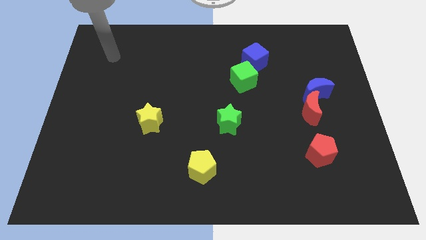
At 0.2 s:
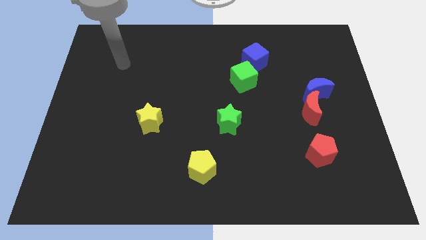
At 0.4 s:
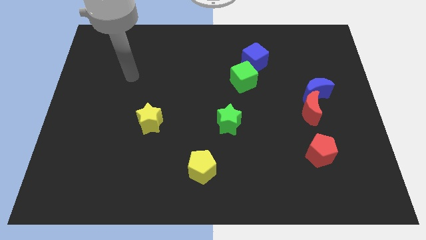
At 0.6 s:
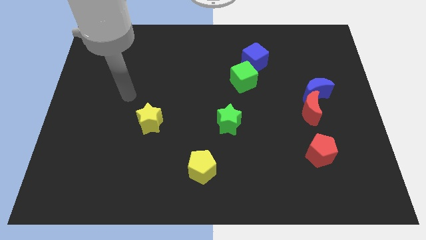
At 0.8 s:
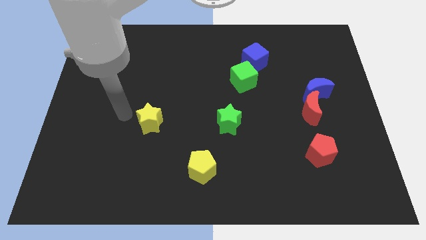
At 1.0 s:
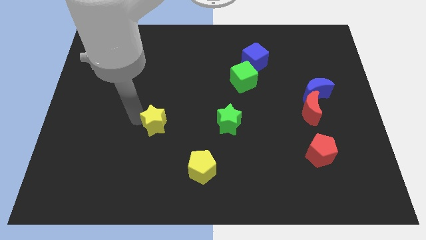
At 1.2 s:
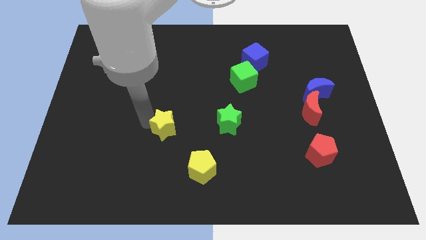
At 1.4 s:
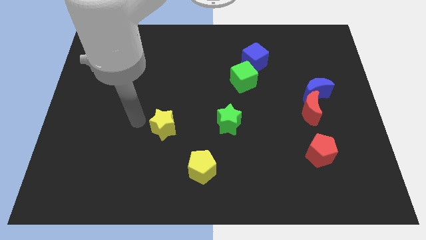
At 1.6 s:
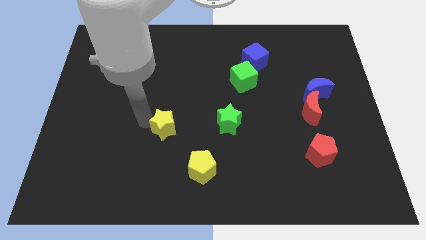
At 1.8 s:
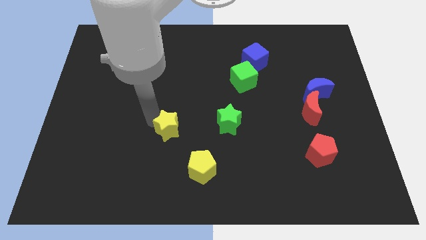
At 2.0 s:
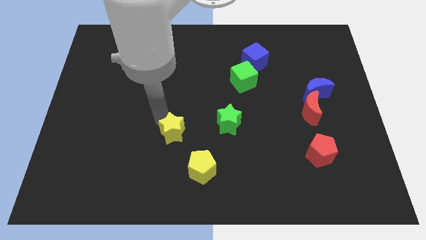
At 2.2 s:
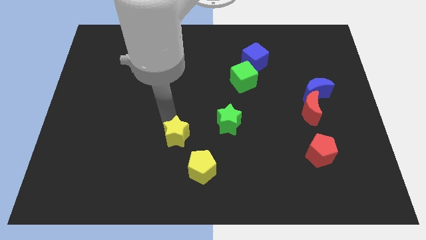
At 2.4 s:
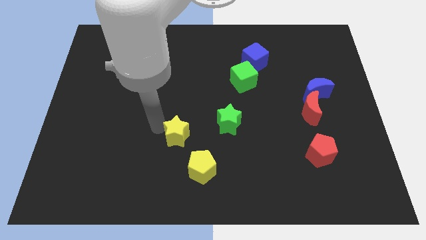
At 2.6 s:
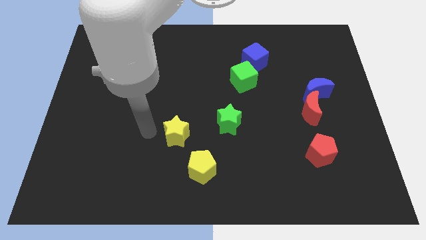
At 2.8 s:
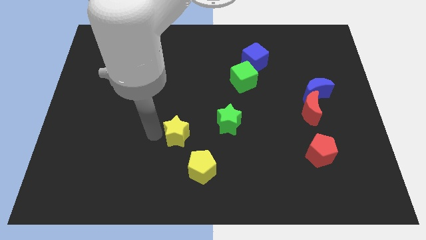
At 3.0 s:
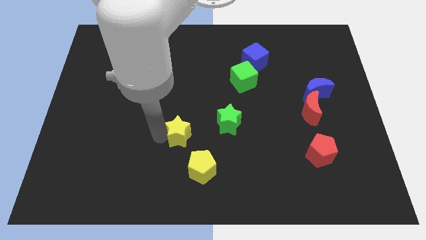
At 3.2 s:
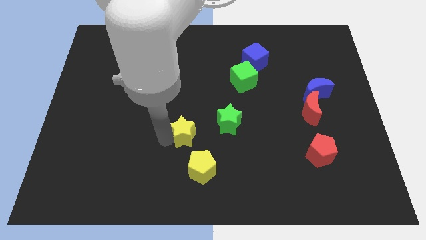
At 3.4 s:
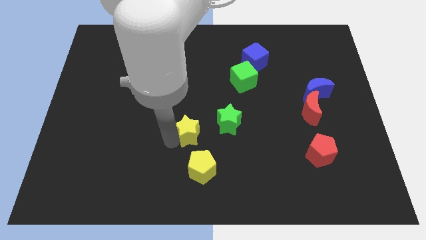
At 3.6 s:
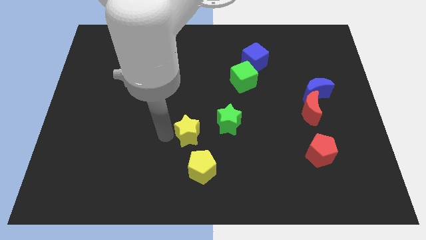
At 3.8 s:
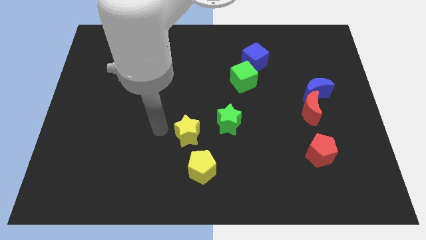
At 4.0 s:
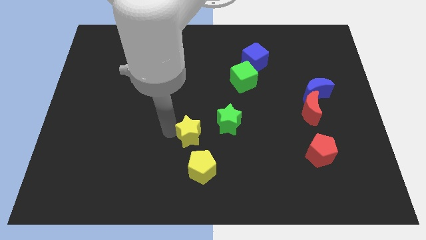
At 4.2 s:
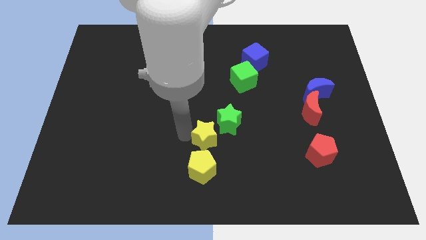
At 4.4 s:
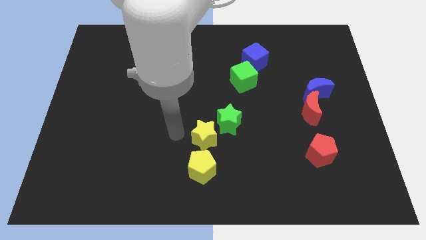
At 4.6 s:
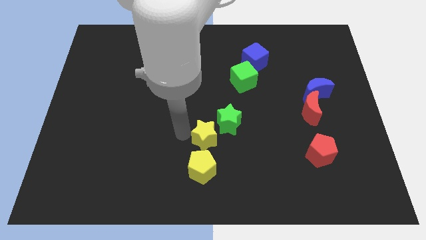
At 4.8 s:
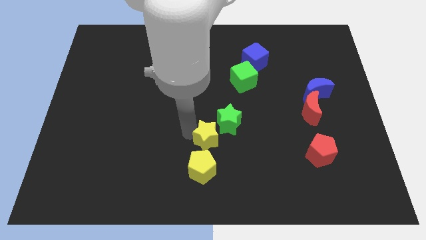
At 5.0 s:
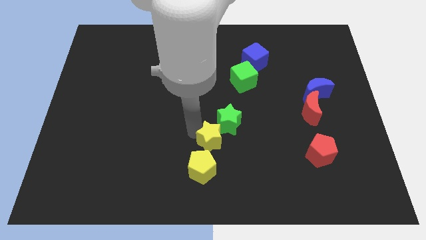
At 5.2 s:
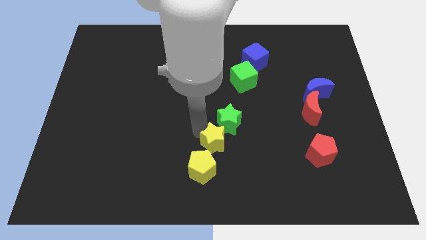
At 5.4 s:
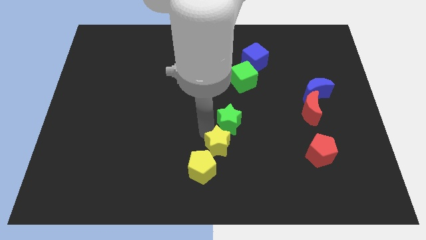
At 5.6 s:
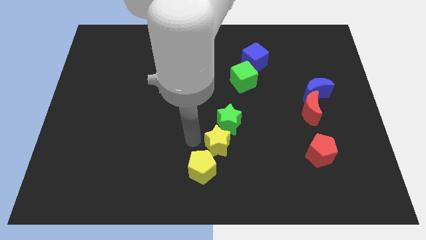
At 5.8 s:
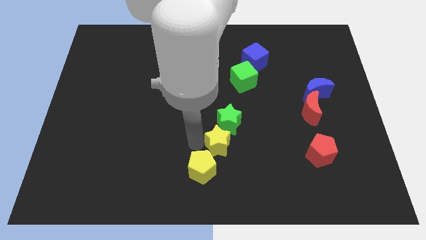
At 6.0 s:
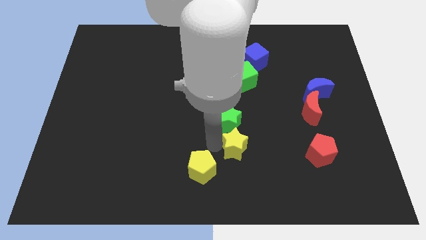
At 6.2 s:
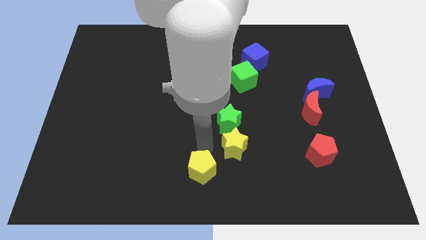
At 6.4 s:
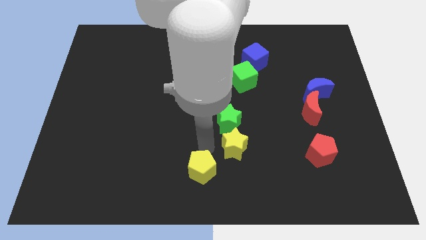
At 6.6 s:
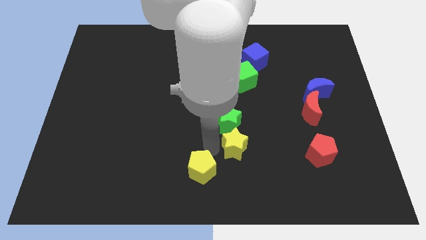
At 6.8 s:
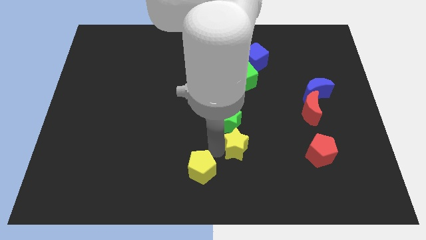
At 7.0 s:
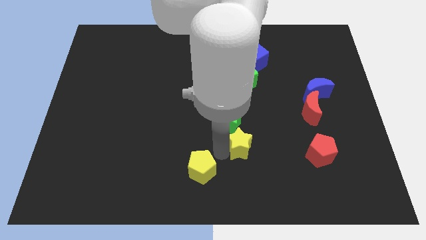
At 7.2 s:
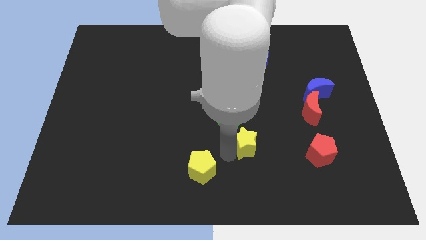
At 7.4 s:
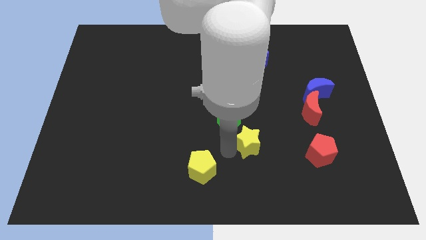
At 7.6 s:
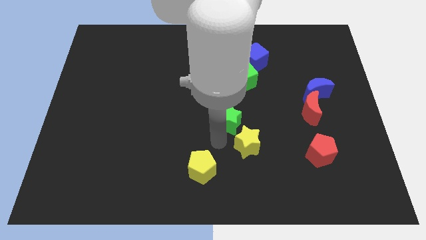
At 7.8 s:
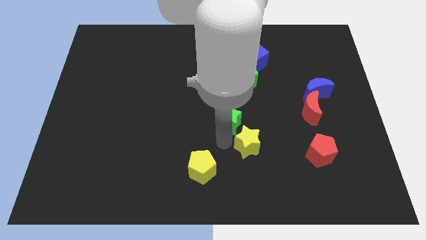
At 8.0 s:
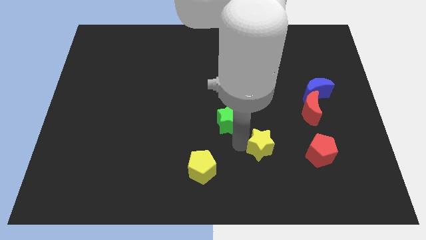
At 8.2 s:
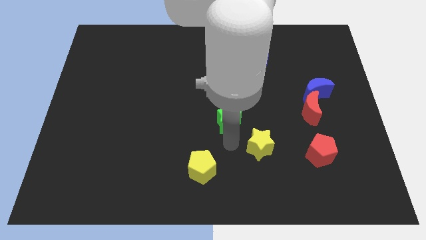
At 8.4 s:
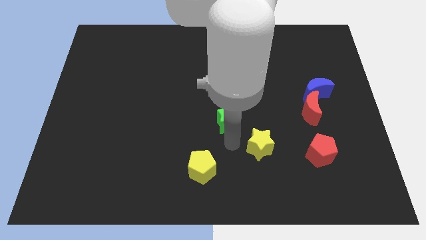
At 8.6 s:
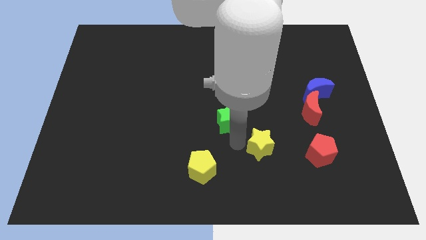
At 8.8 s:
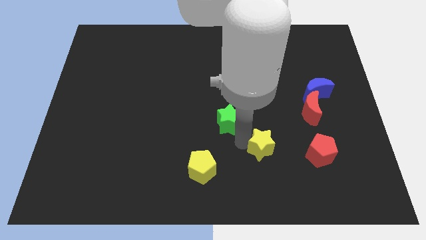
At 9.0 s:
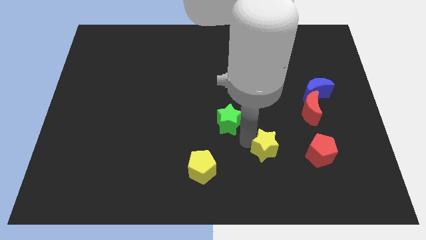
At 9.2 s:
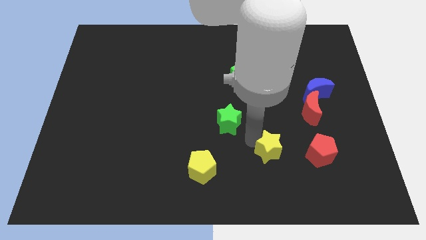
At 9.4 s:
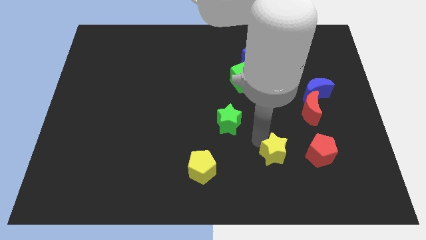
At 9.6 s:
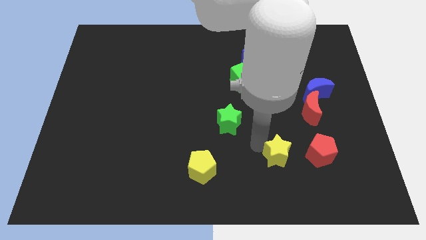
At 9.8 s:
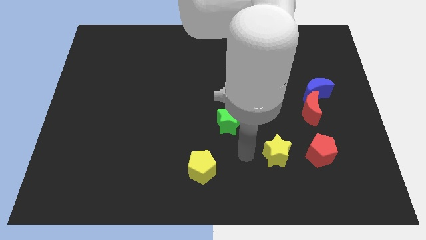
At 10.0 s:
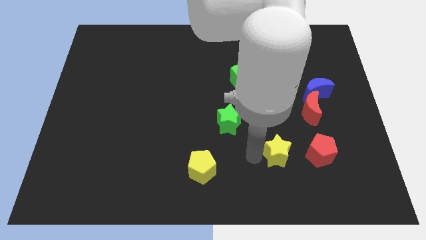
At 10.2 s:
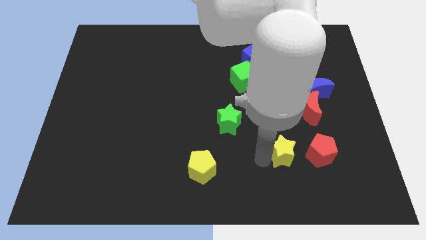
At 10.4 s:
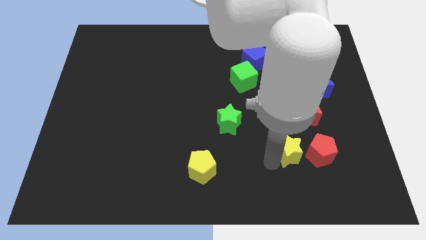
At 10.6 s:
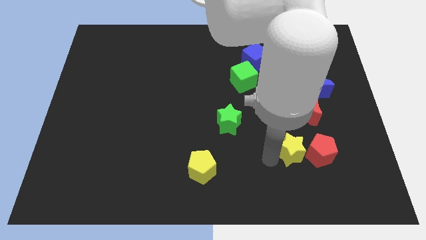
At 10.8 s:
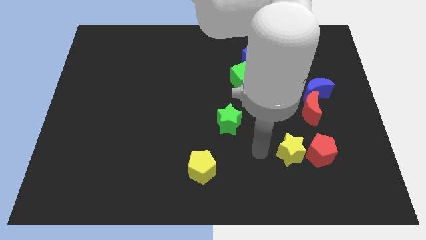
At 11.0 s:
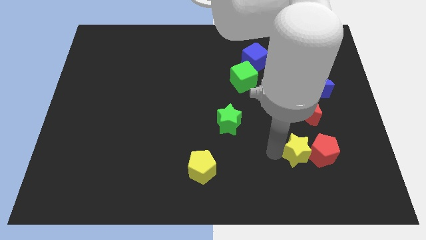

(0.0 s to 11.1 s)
push the yellow star next to the red pentagon

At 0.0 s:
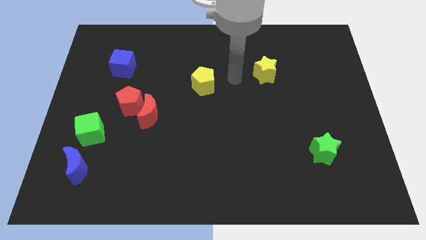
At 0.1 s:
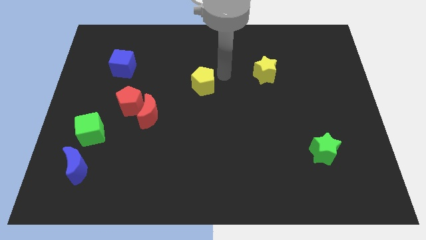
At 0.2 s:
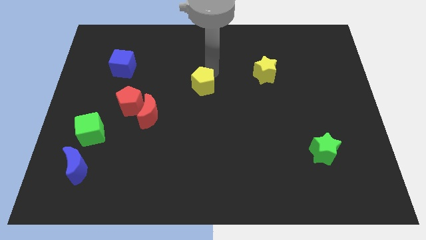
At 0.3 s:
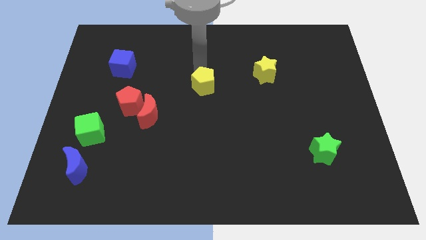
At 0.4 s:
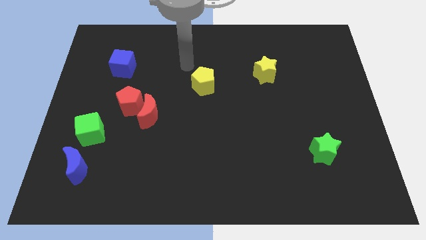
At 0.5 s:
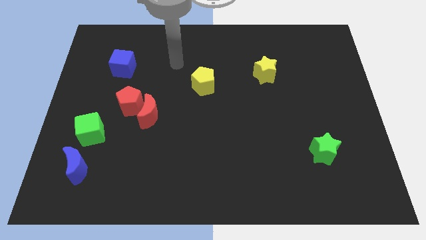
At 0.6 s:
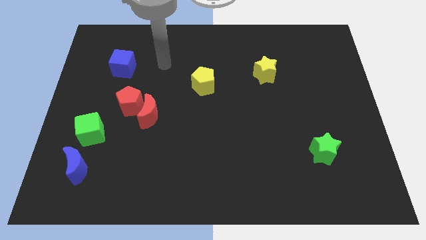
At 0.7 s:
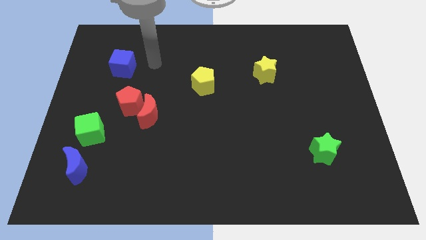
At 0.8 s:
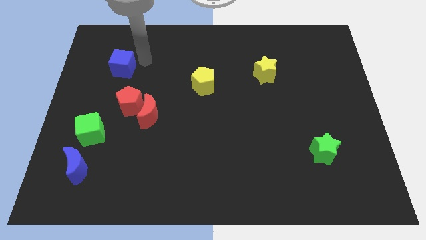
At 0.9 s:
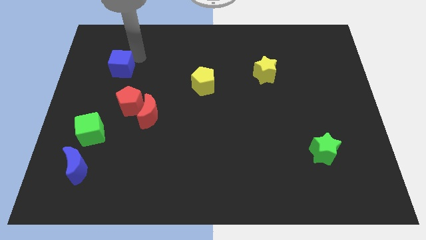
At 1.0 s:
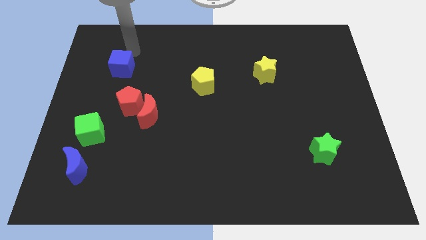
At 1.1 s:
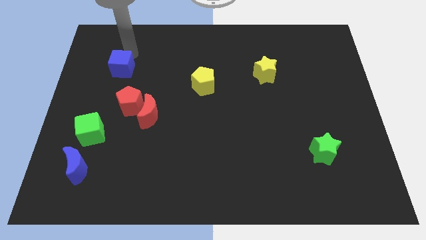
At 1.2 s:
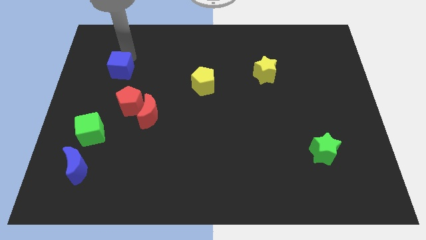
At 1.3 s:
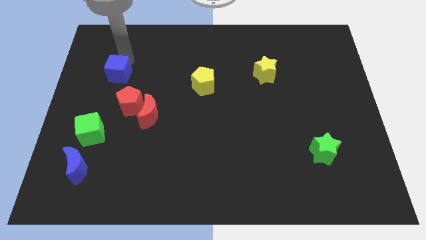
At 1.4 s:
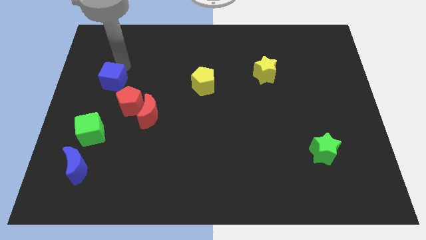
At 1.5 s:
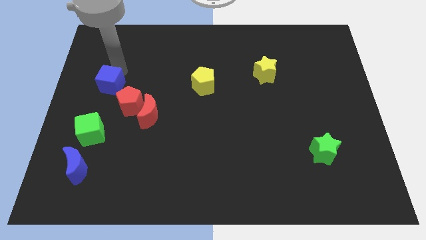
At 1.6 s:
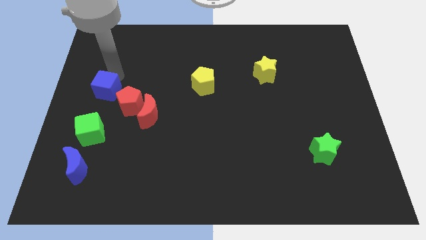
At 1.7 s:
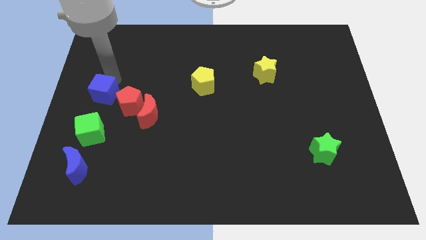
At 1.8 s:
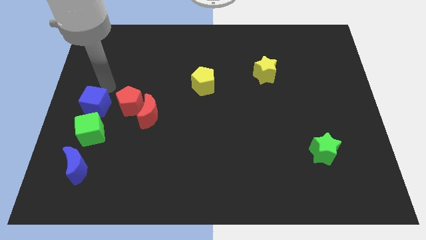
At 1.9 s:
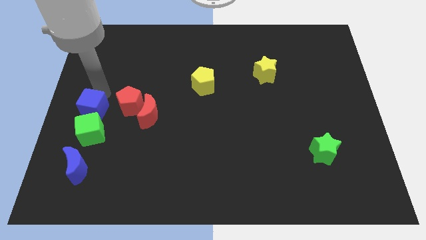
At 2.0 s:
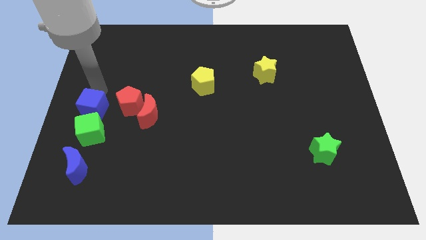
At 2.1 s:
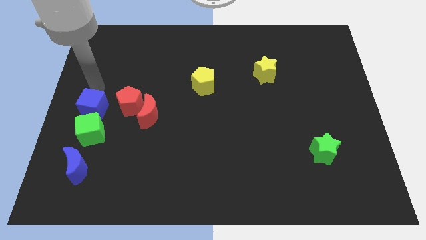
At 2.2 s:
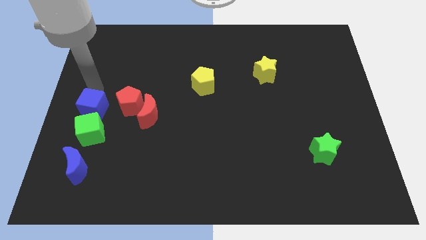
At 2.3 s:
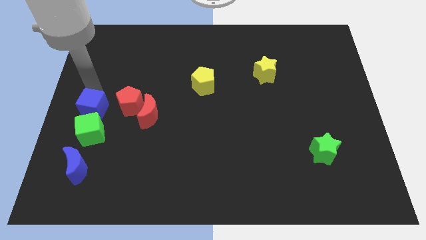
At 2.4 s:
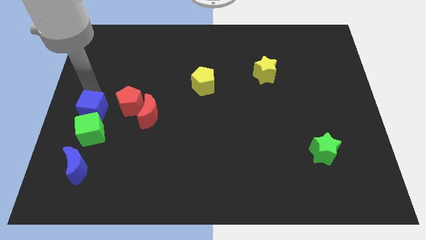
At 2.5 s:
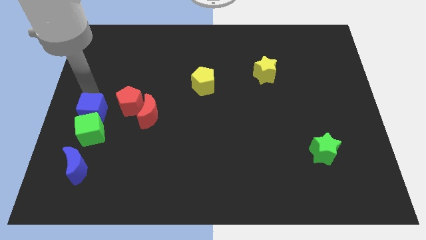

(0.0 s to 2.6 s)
slide the blue cube next to the green cube
